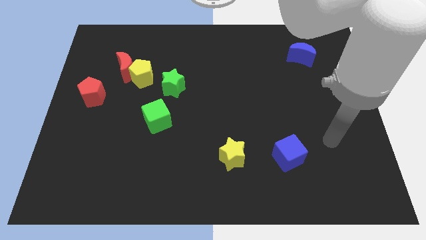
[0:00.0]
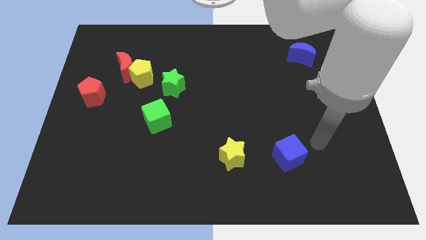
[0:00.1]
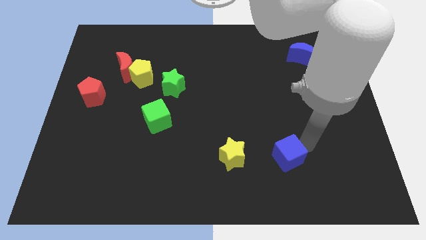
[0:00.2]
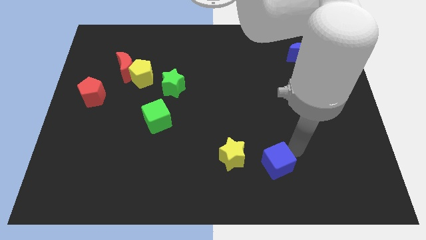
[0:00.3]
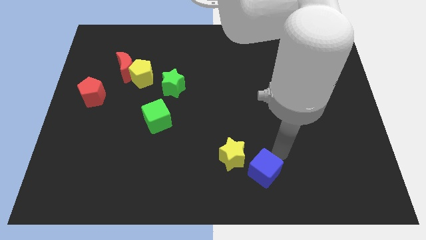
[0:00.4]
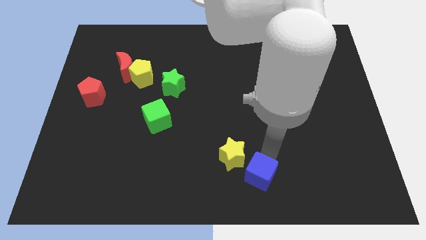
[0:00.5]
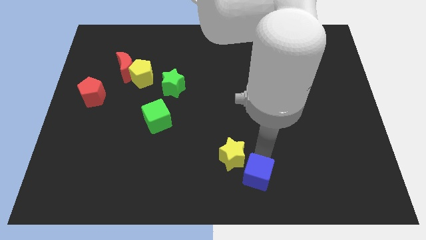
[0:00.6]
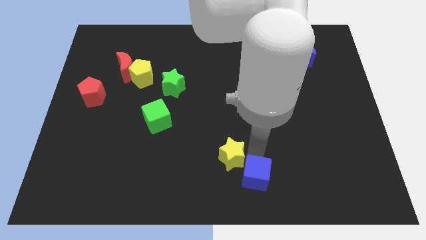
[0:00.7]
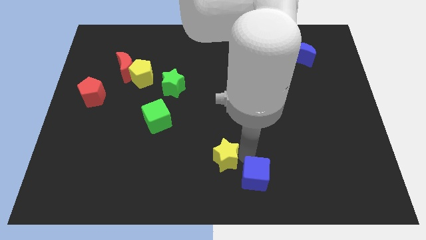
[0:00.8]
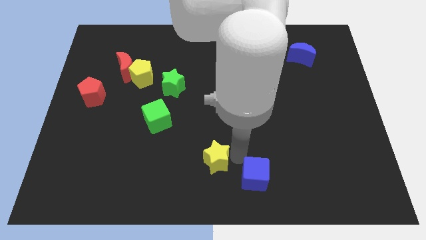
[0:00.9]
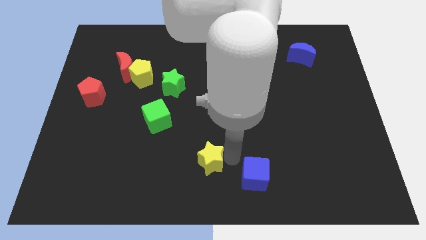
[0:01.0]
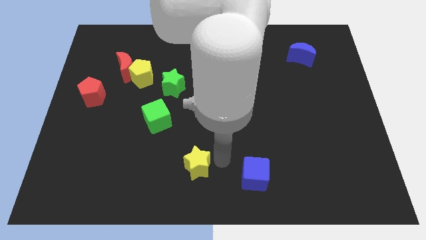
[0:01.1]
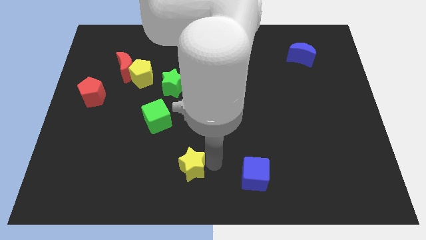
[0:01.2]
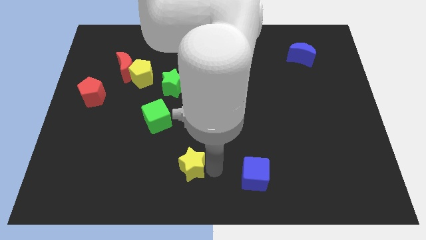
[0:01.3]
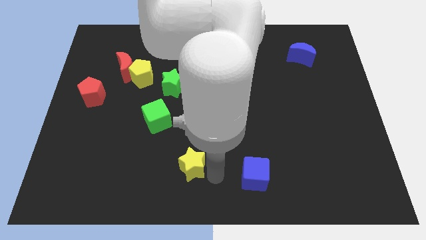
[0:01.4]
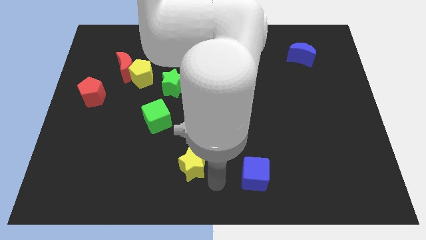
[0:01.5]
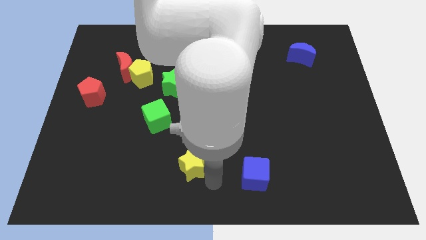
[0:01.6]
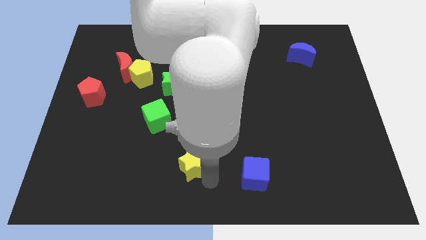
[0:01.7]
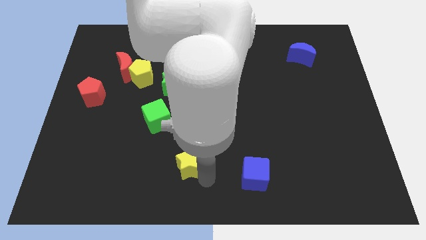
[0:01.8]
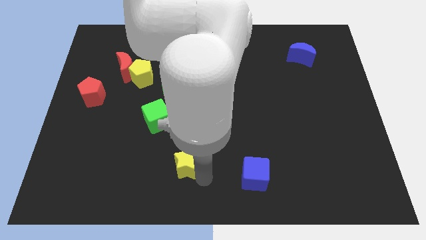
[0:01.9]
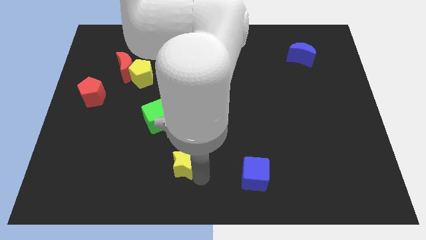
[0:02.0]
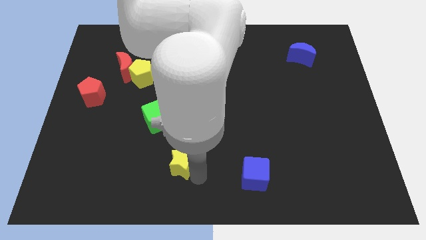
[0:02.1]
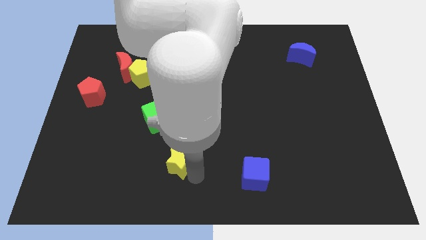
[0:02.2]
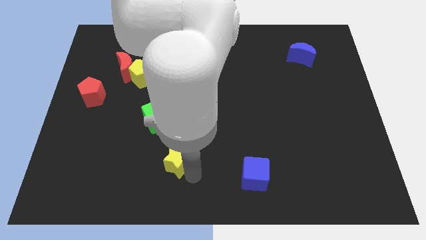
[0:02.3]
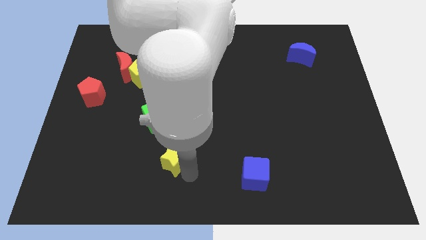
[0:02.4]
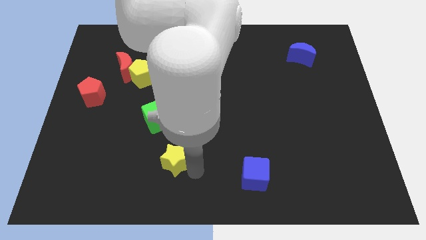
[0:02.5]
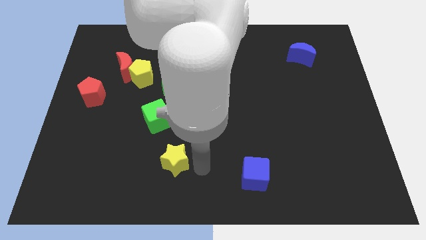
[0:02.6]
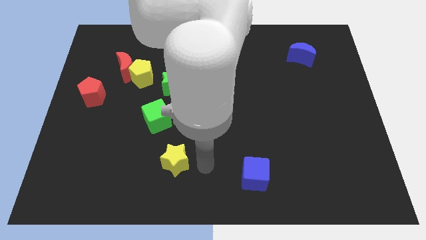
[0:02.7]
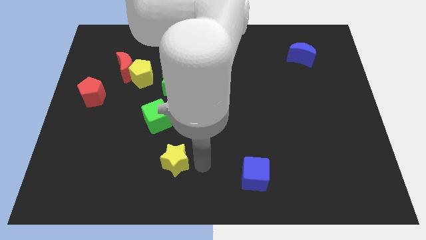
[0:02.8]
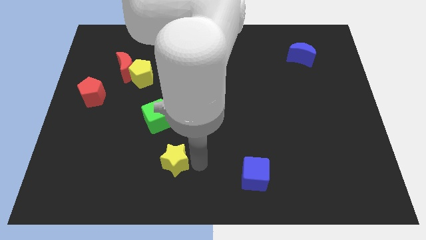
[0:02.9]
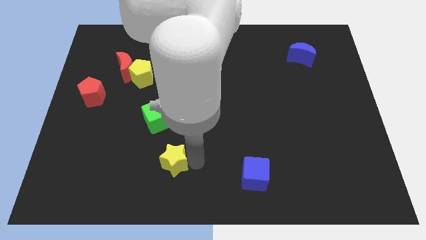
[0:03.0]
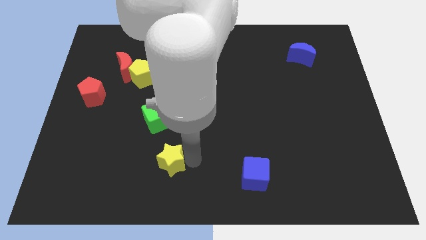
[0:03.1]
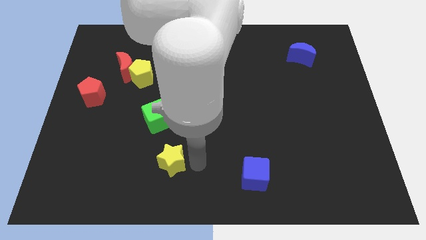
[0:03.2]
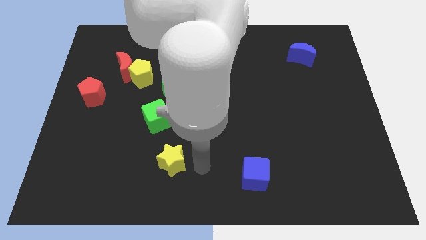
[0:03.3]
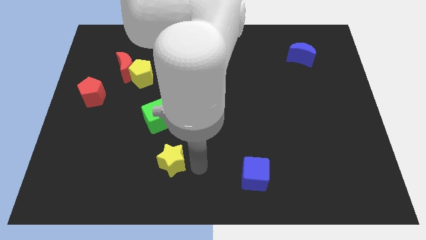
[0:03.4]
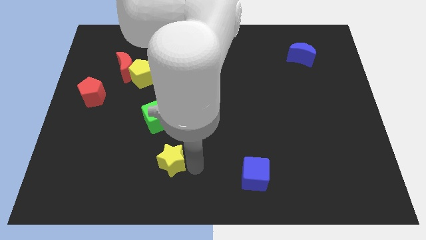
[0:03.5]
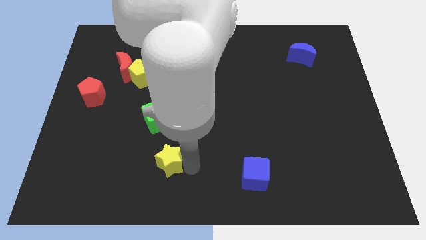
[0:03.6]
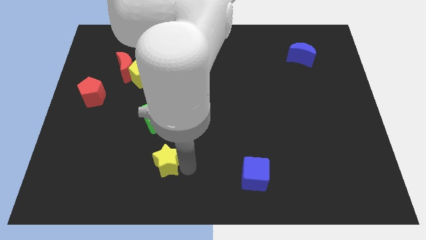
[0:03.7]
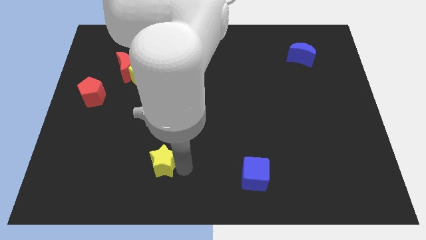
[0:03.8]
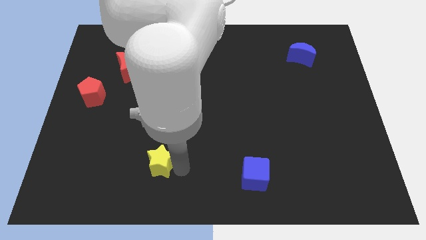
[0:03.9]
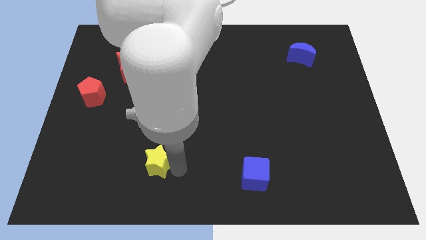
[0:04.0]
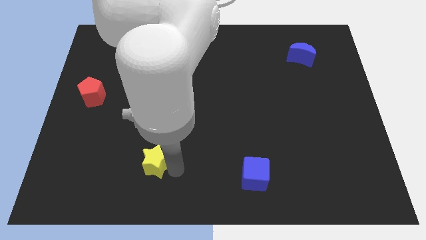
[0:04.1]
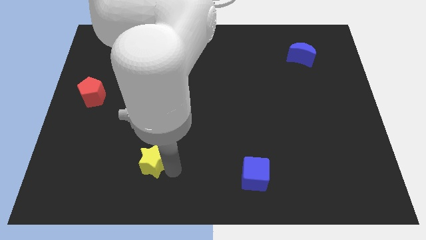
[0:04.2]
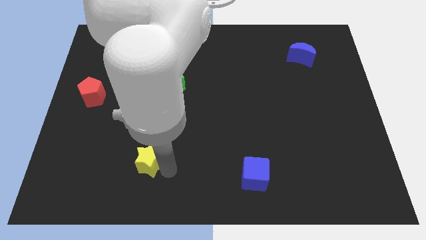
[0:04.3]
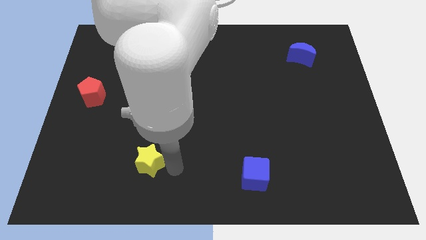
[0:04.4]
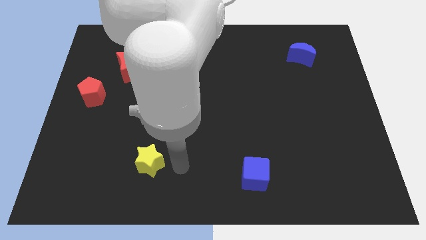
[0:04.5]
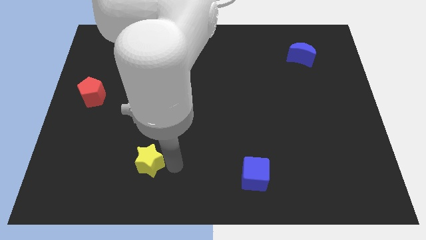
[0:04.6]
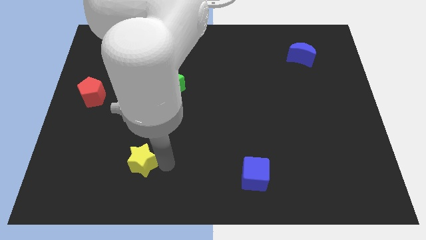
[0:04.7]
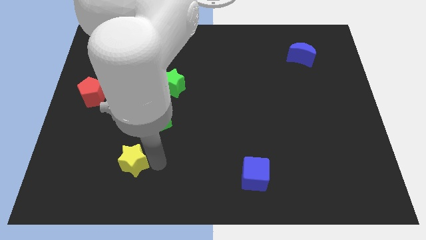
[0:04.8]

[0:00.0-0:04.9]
push the yellow star left

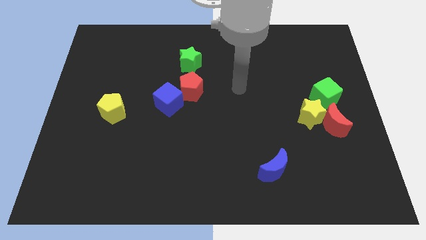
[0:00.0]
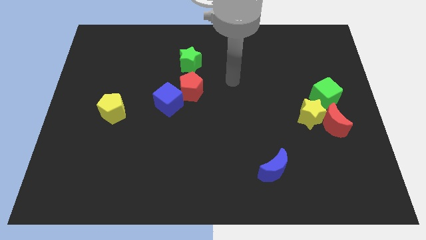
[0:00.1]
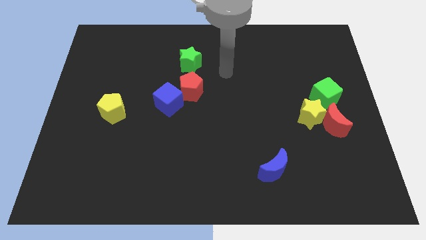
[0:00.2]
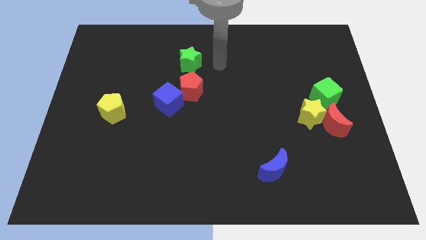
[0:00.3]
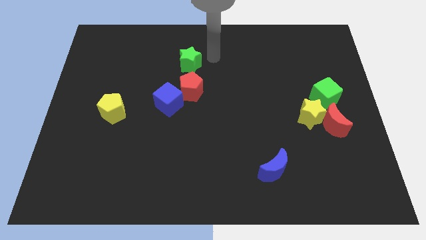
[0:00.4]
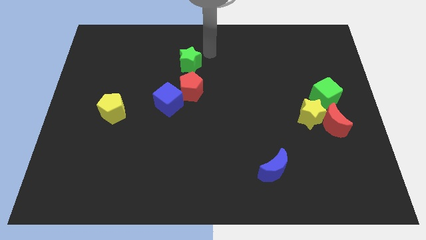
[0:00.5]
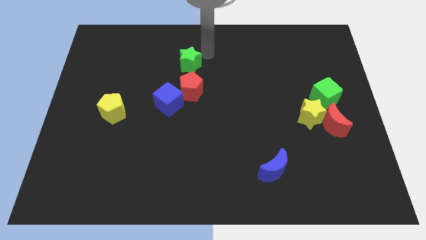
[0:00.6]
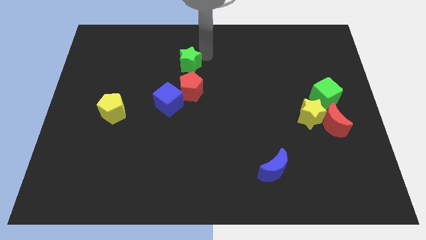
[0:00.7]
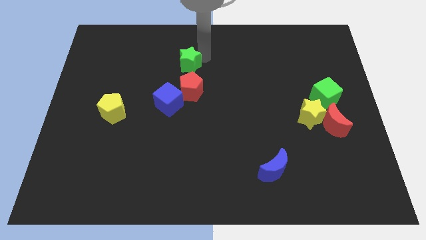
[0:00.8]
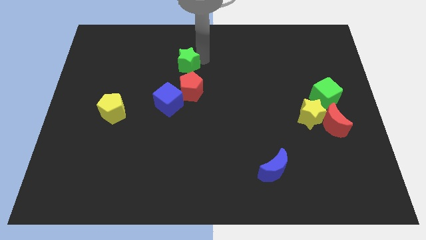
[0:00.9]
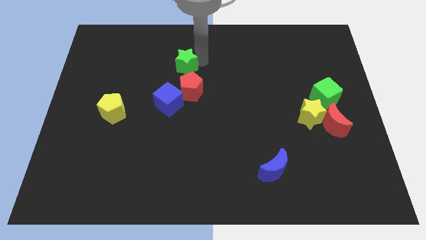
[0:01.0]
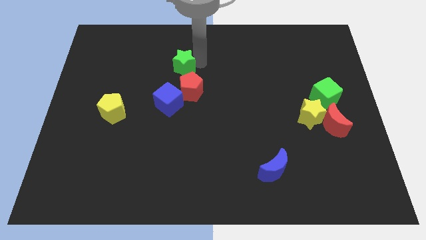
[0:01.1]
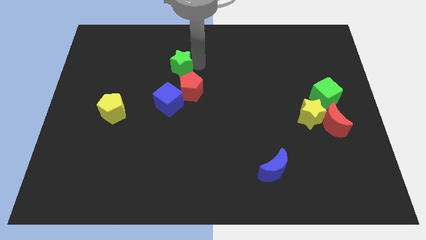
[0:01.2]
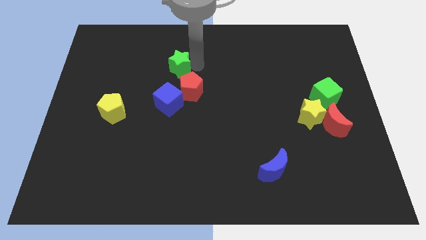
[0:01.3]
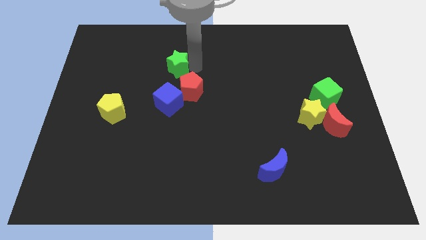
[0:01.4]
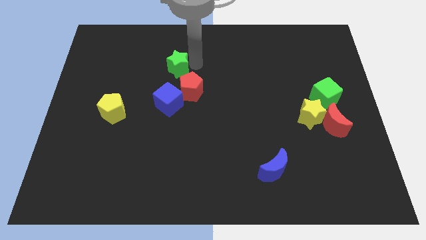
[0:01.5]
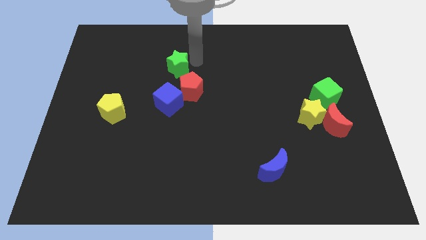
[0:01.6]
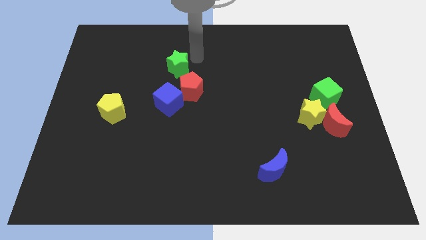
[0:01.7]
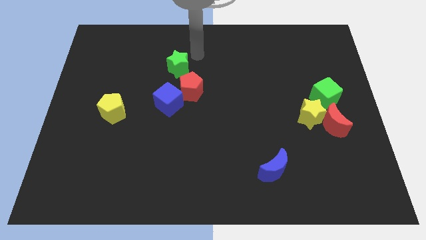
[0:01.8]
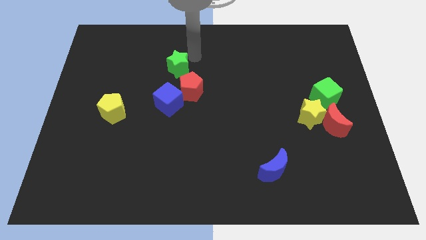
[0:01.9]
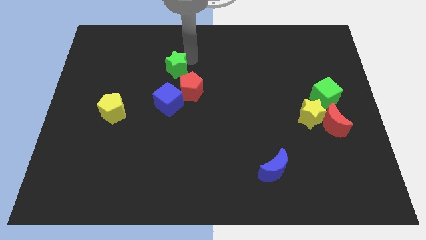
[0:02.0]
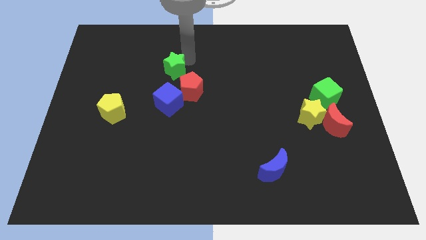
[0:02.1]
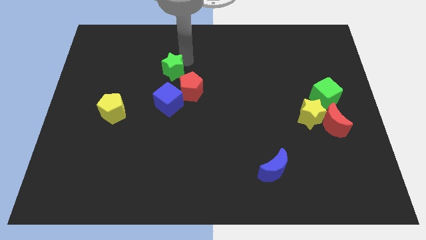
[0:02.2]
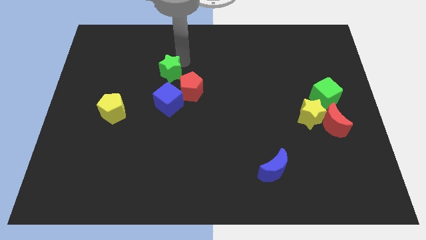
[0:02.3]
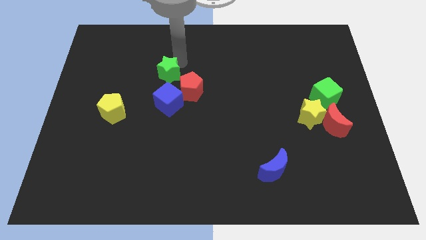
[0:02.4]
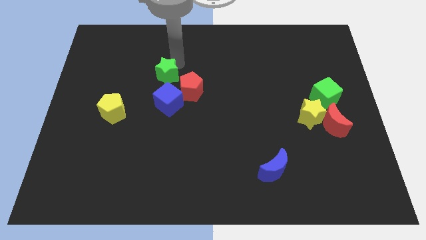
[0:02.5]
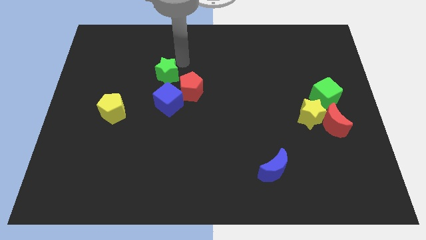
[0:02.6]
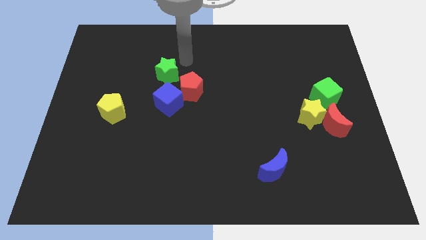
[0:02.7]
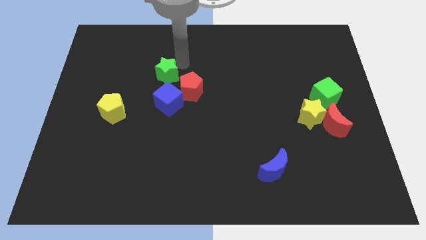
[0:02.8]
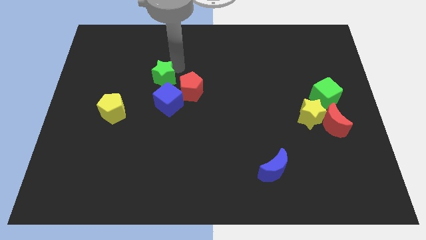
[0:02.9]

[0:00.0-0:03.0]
push the green star down and left diagonally somewhat
